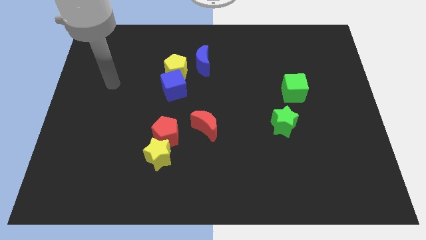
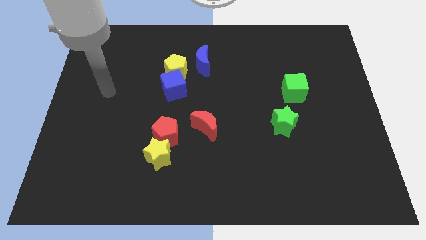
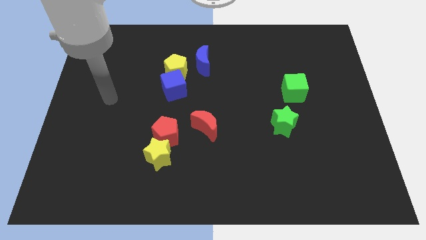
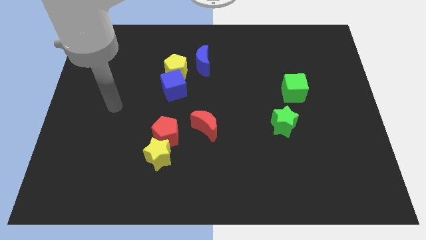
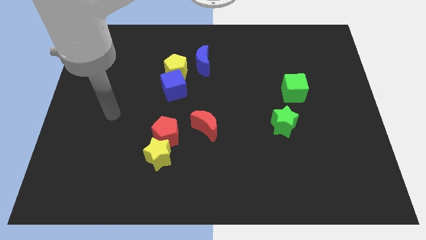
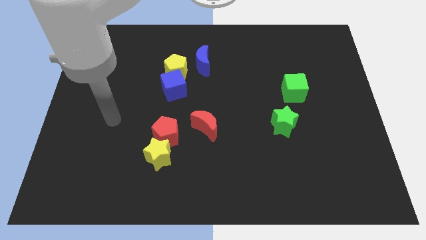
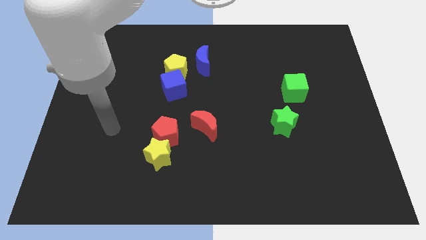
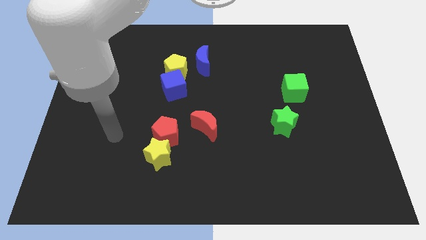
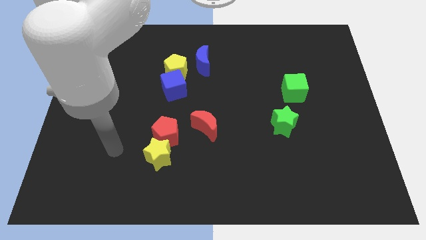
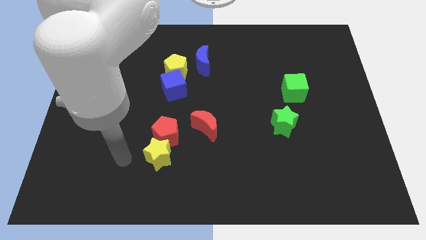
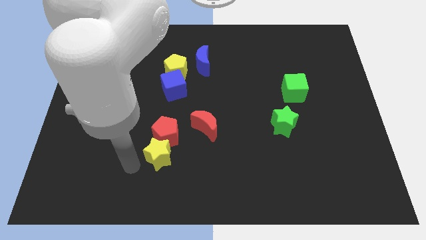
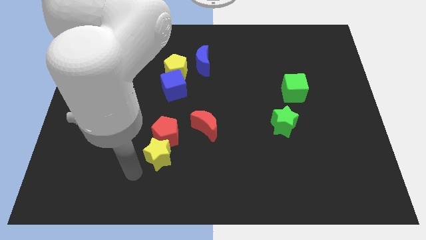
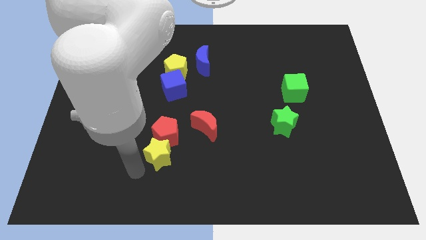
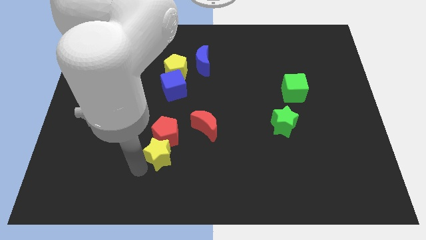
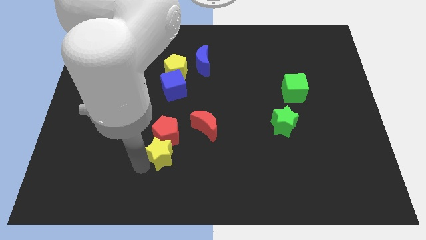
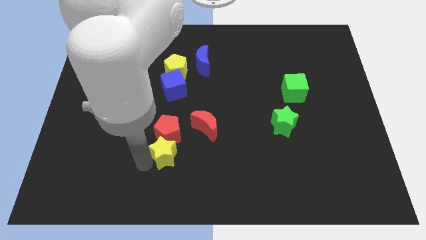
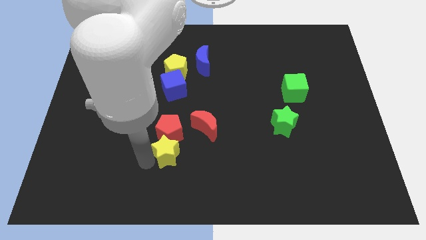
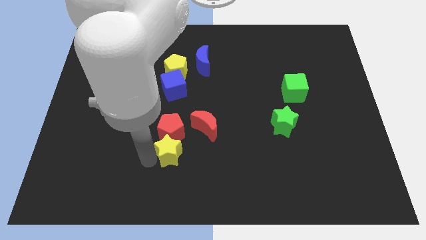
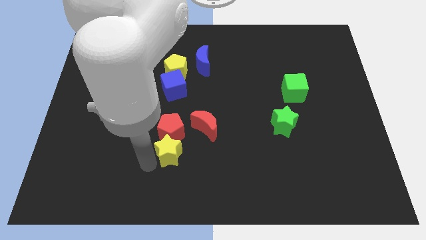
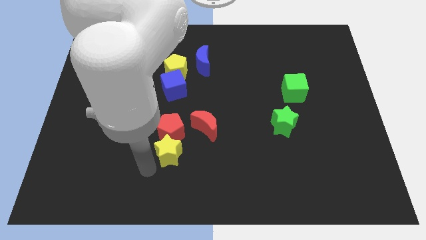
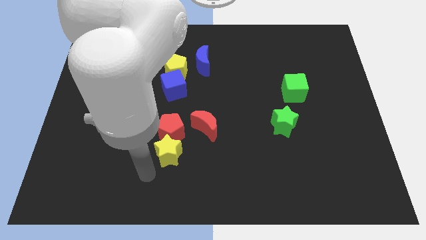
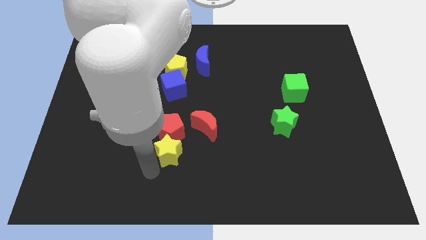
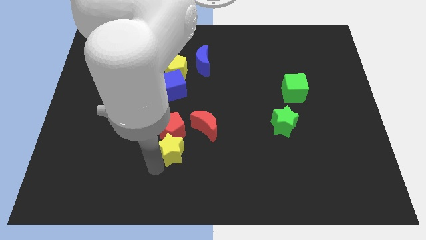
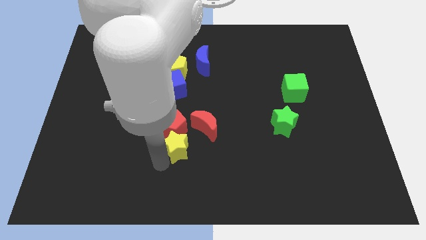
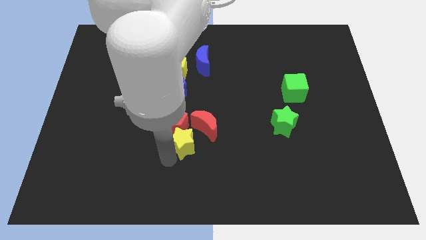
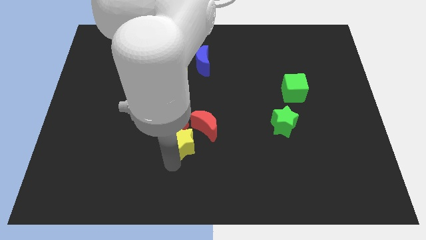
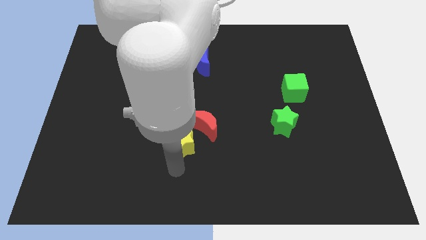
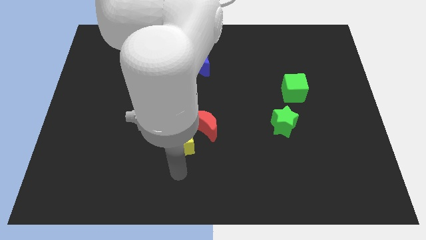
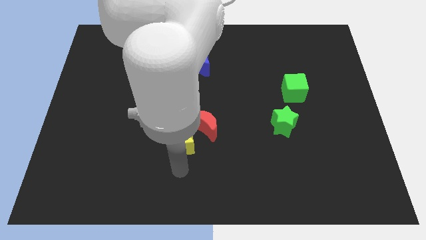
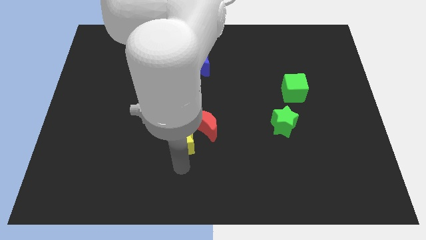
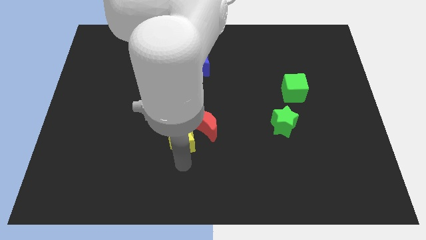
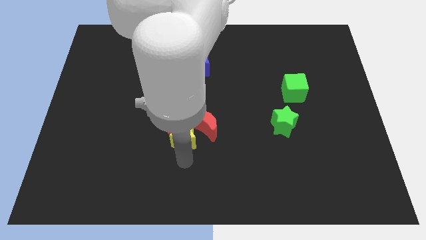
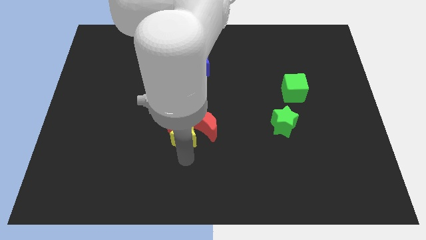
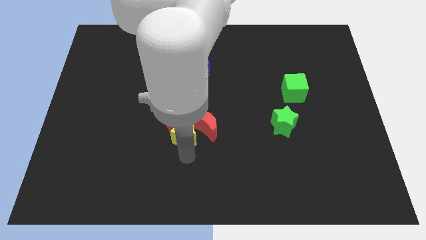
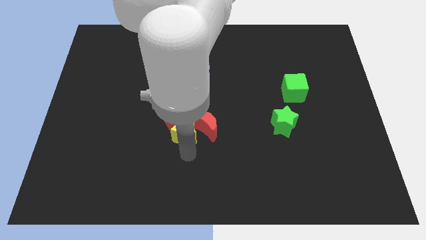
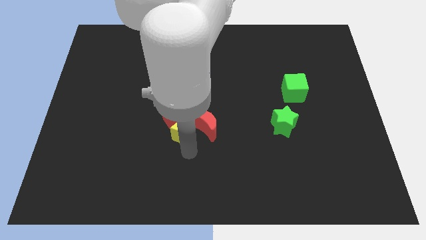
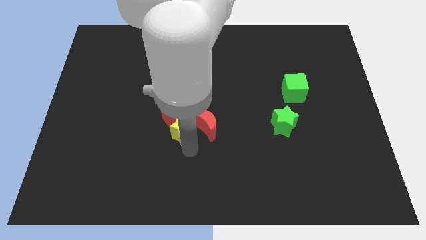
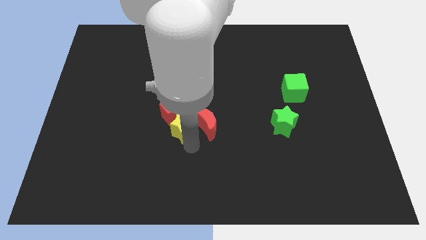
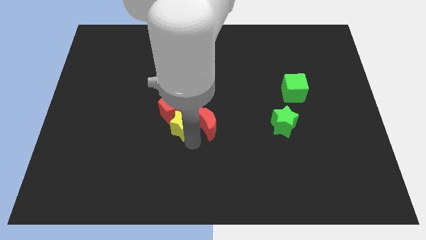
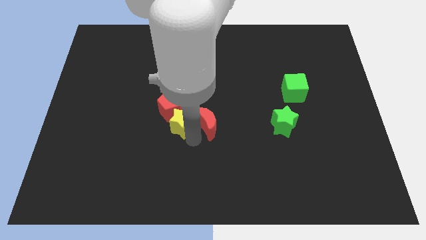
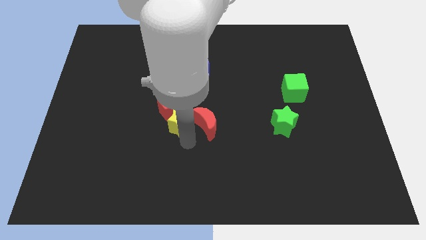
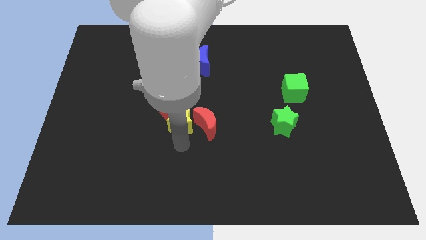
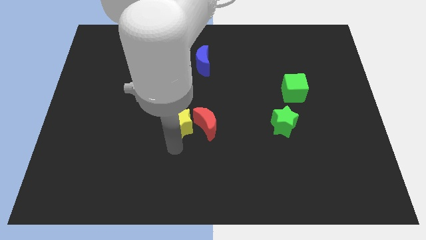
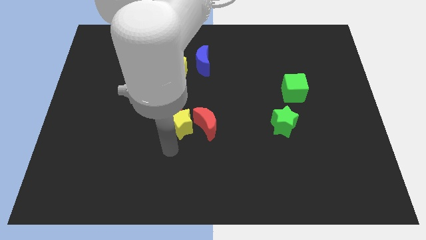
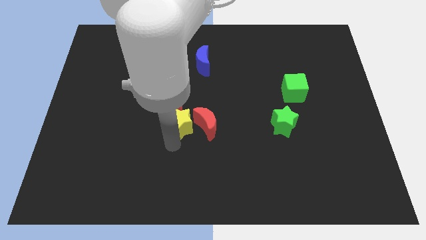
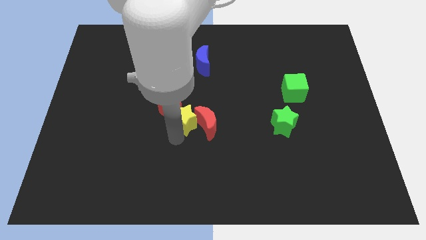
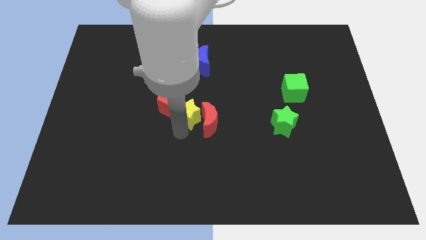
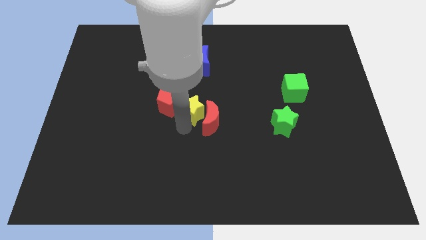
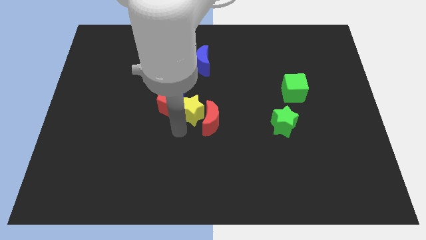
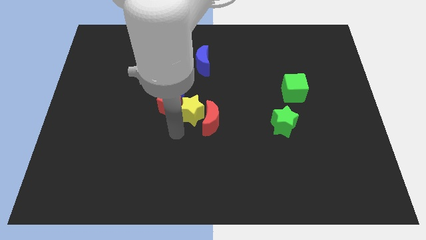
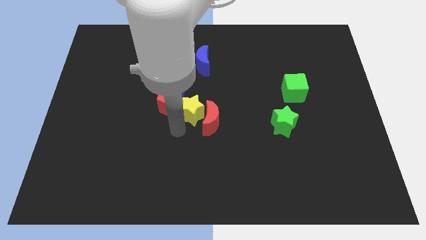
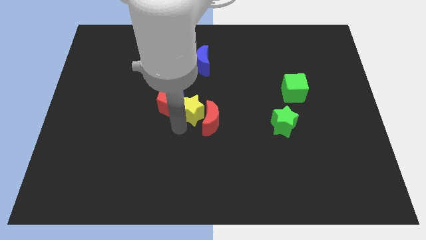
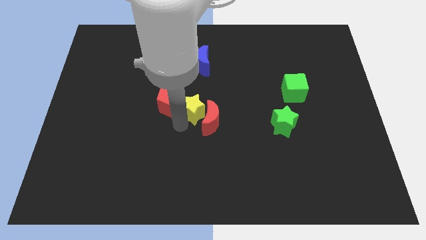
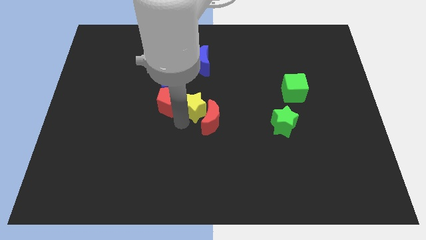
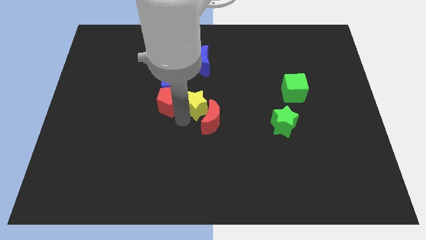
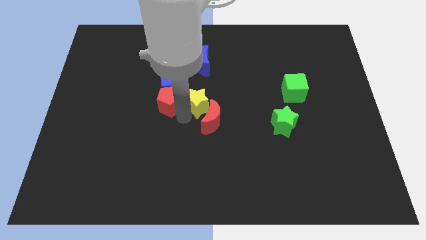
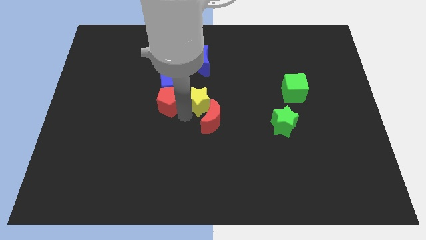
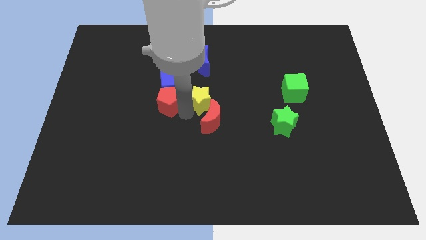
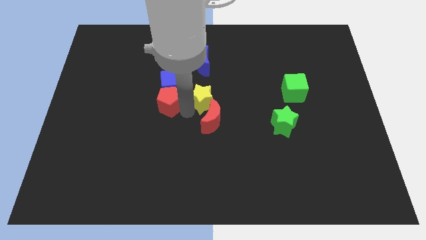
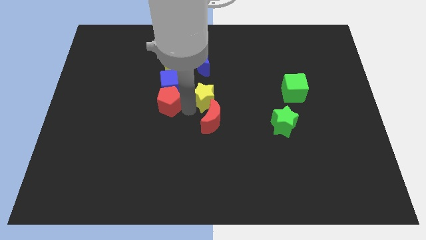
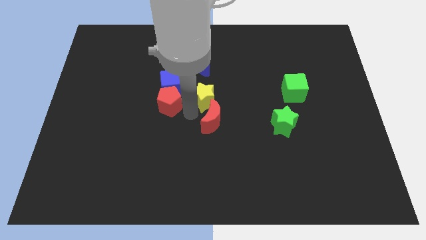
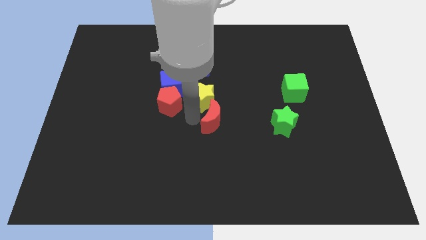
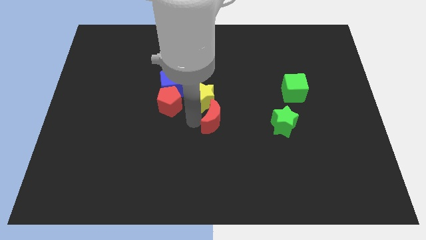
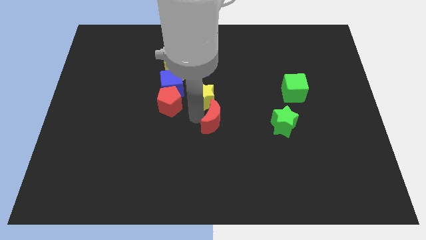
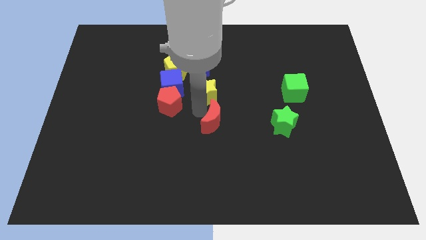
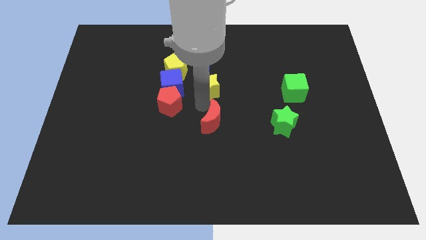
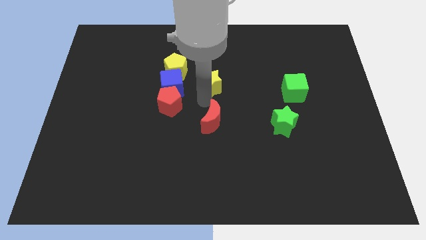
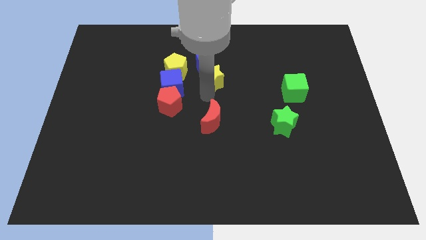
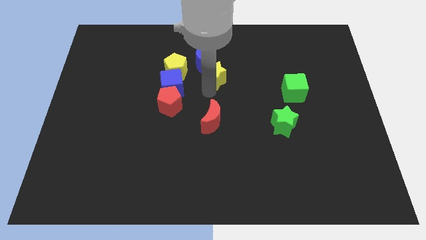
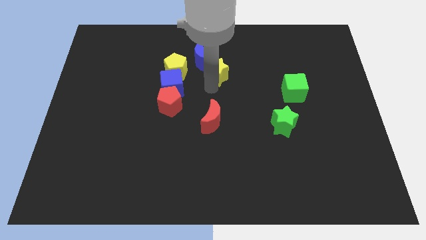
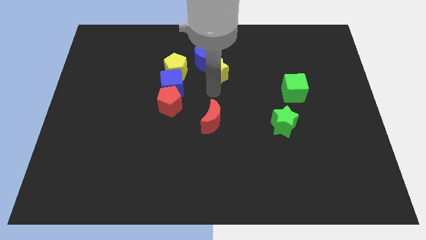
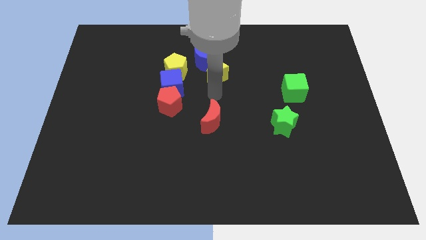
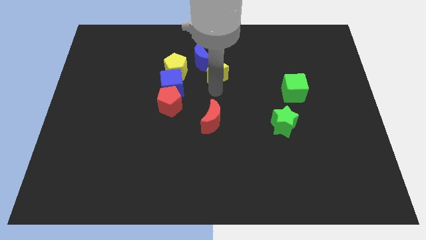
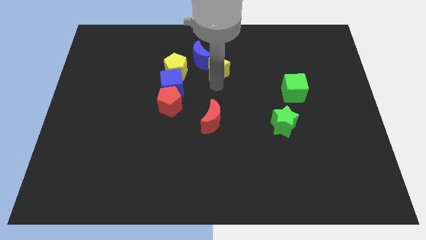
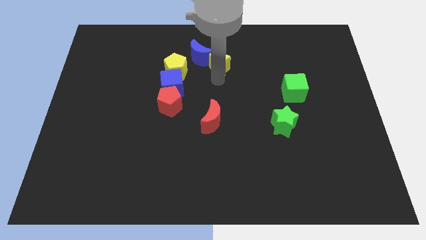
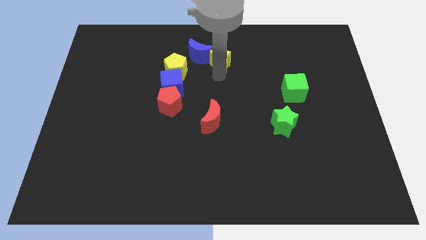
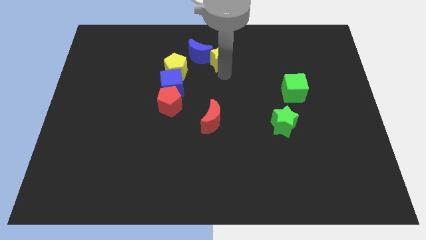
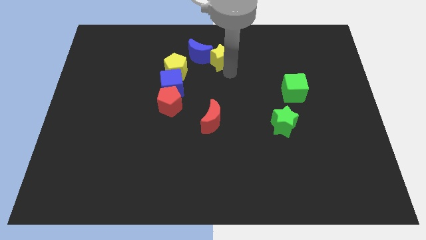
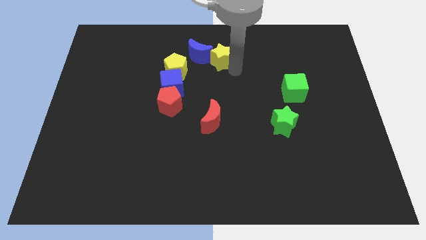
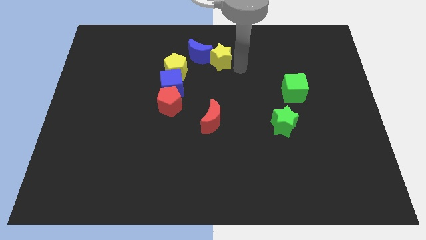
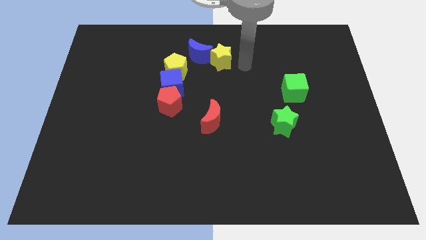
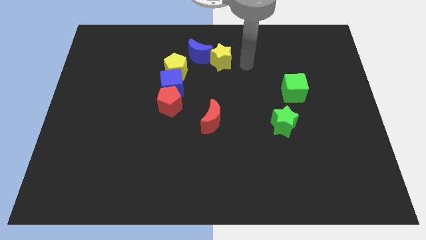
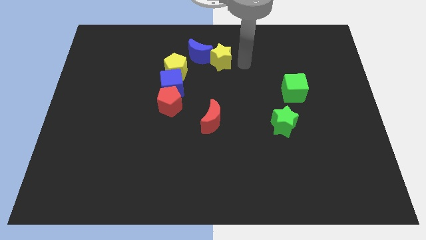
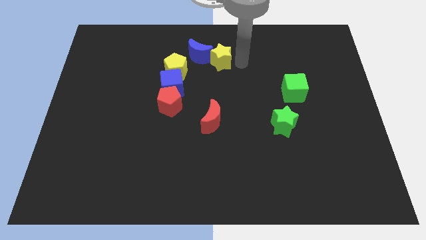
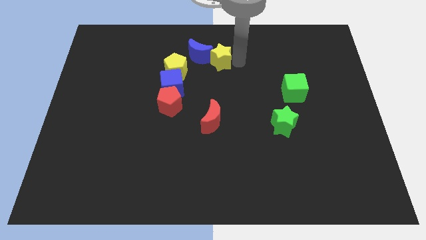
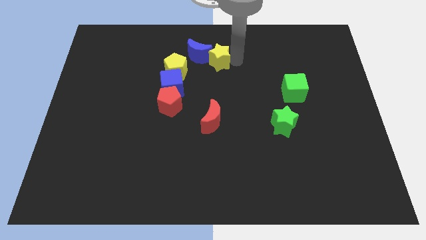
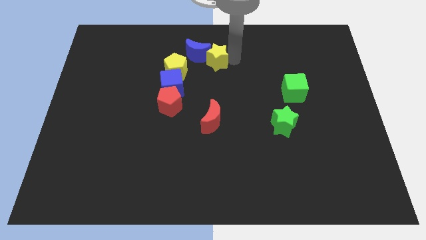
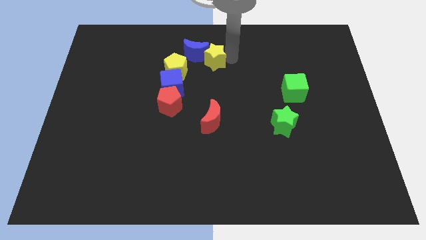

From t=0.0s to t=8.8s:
slide the yellow star to the top right side of the yellow pentagon
